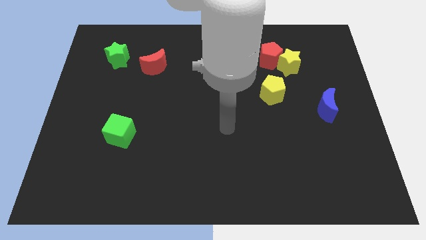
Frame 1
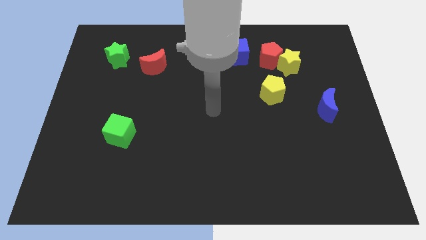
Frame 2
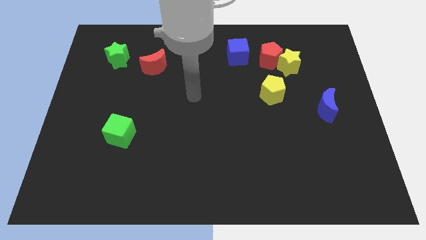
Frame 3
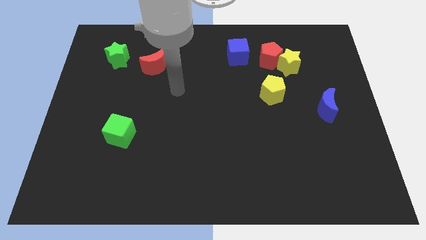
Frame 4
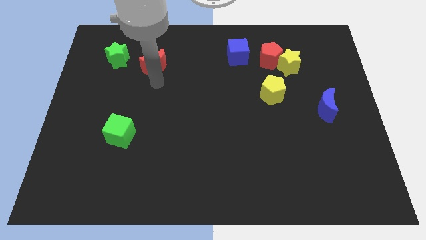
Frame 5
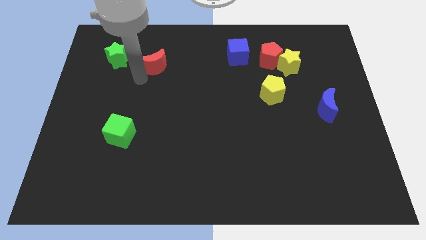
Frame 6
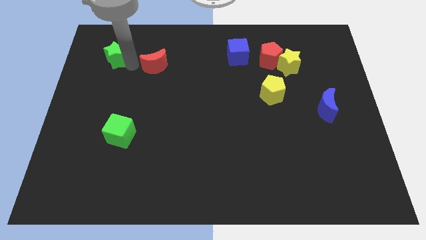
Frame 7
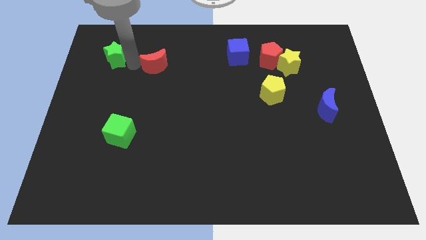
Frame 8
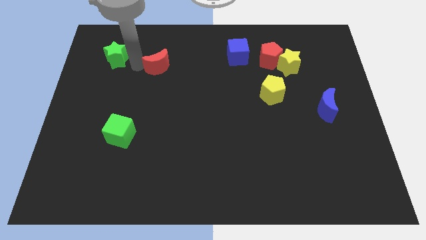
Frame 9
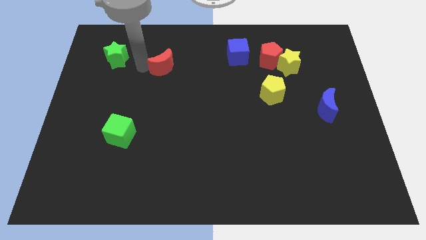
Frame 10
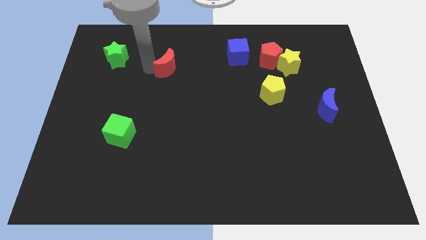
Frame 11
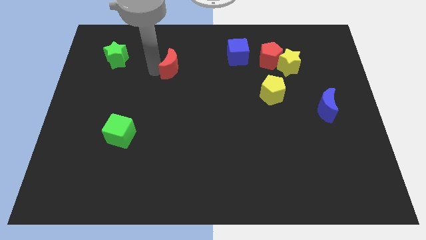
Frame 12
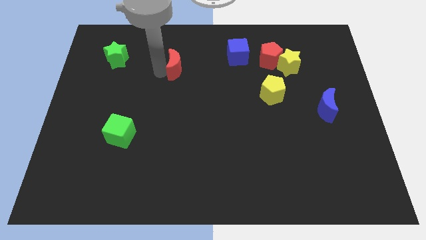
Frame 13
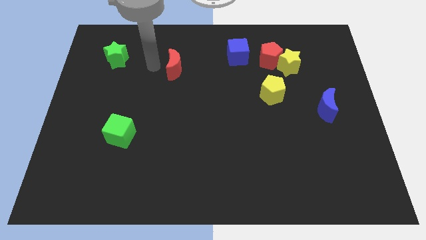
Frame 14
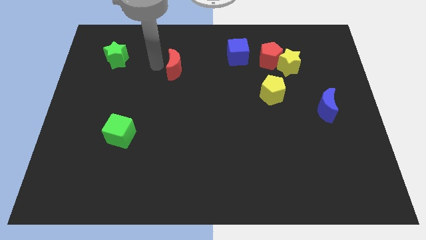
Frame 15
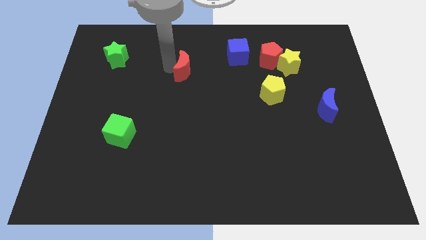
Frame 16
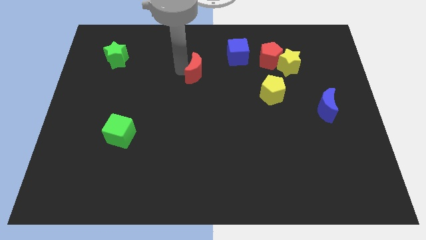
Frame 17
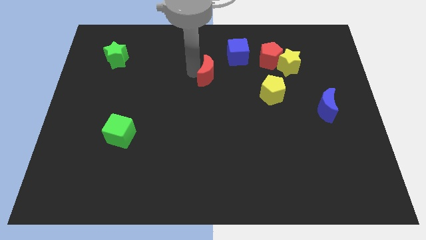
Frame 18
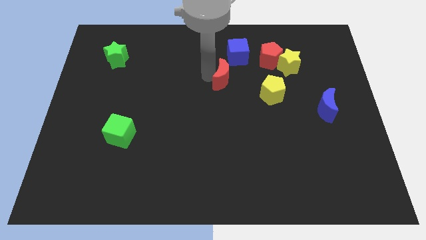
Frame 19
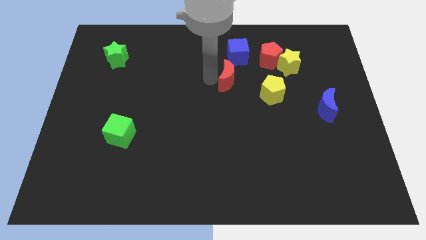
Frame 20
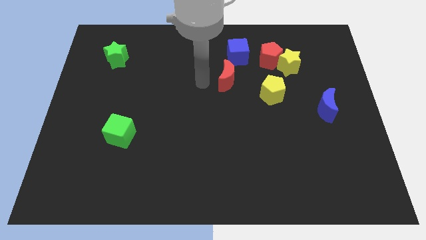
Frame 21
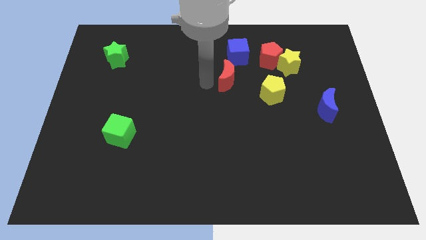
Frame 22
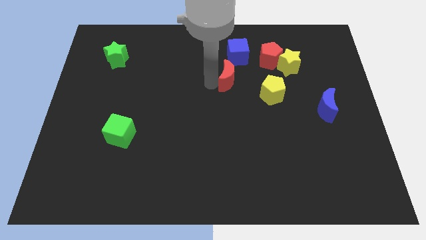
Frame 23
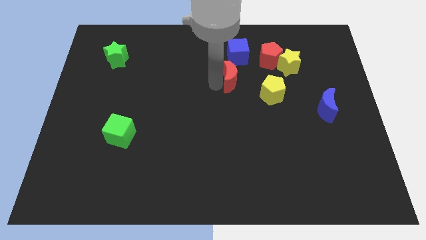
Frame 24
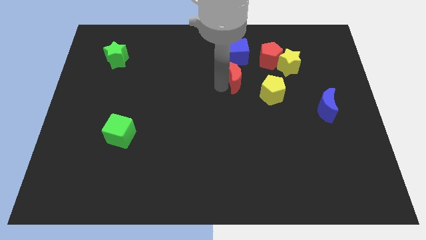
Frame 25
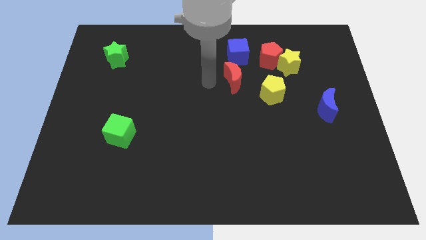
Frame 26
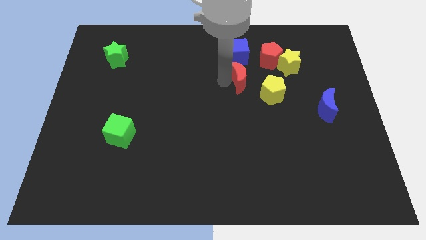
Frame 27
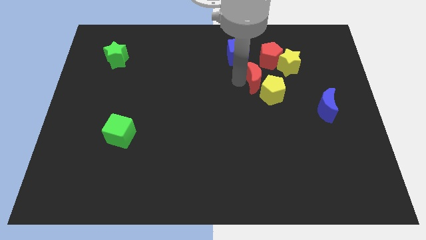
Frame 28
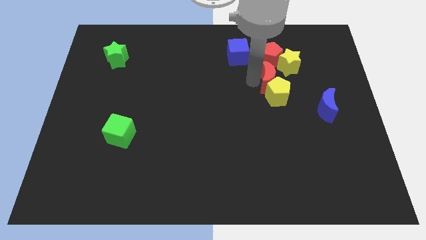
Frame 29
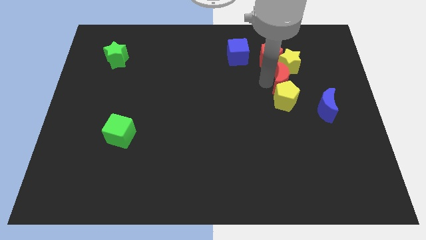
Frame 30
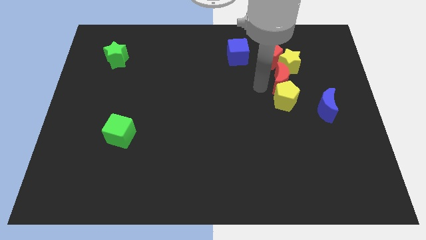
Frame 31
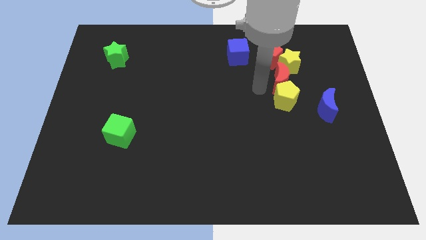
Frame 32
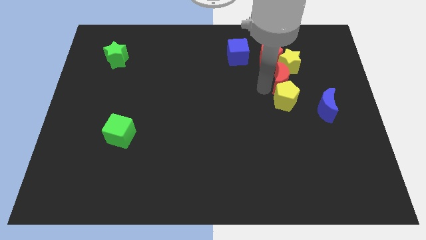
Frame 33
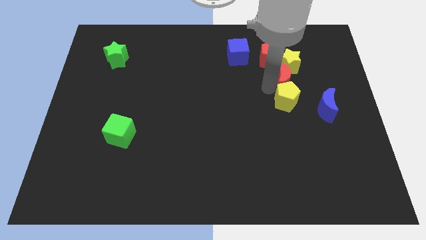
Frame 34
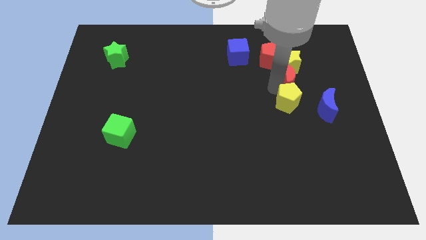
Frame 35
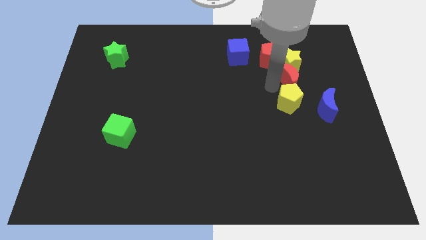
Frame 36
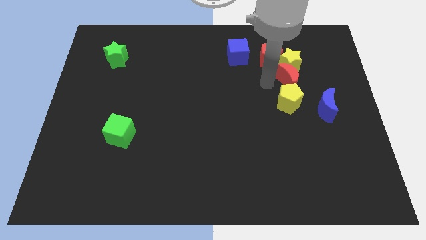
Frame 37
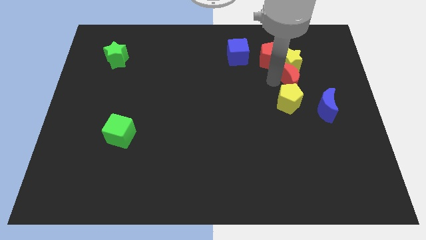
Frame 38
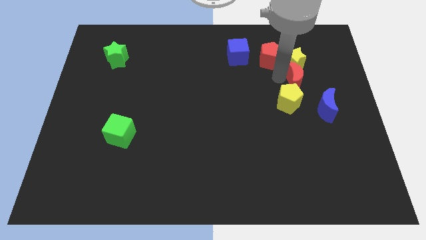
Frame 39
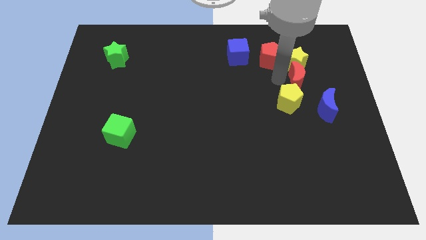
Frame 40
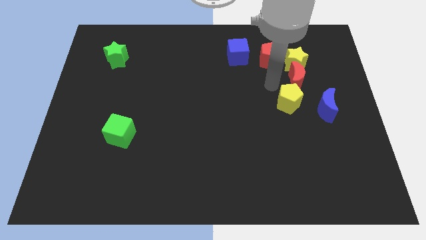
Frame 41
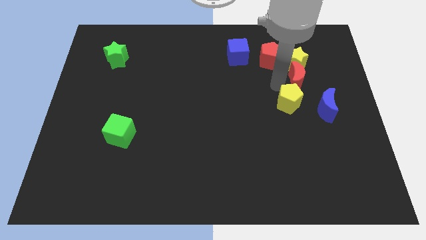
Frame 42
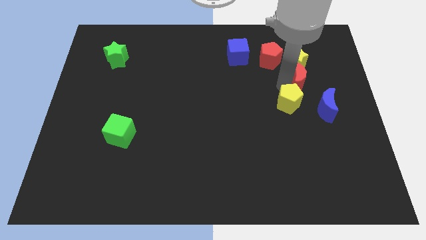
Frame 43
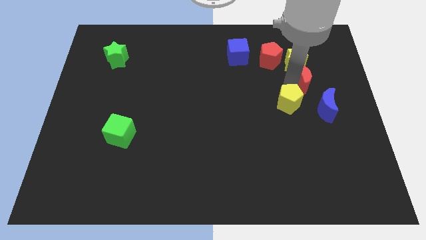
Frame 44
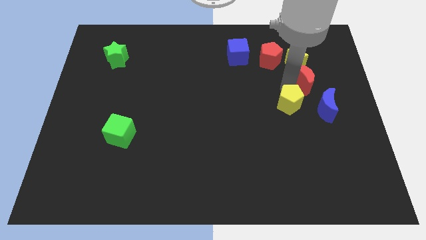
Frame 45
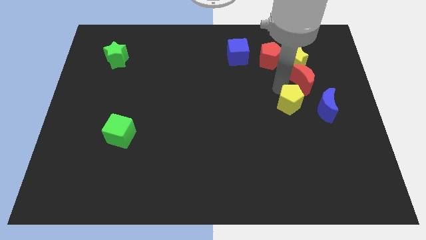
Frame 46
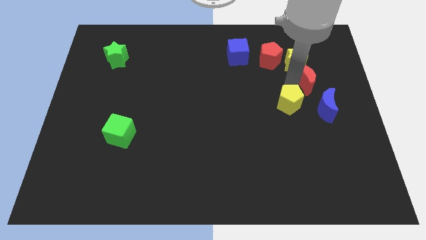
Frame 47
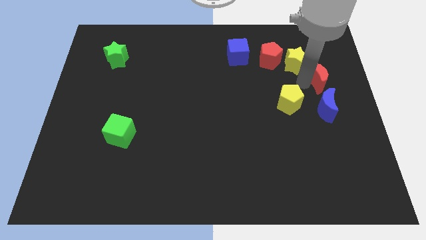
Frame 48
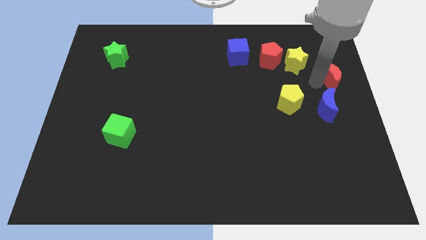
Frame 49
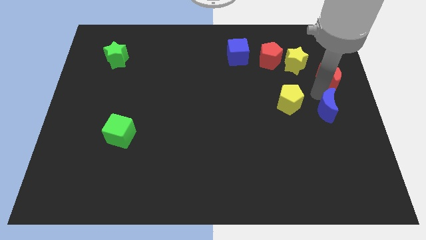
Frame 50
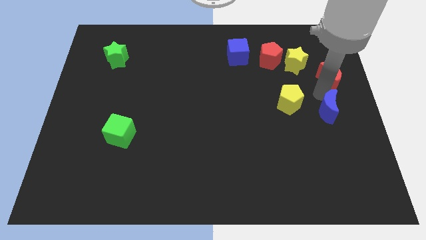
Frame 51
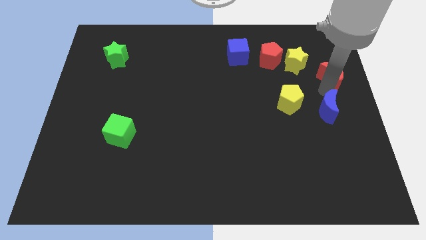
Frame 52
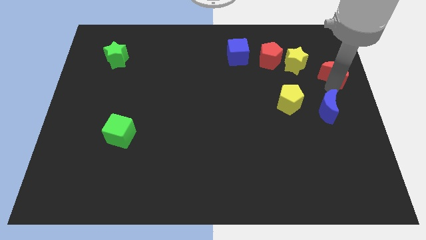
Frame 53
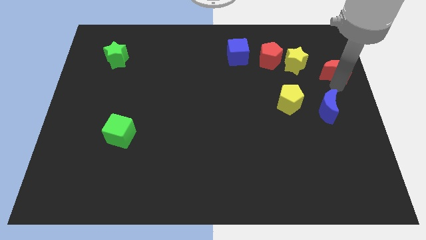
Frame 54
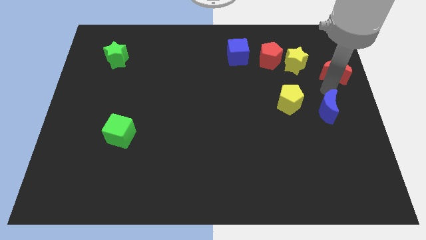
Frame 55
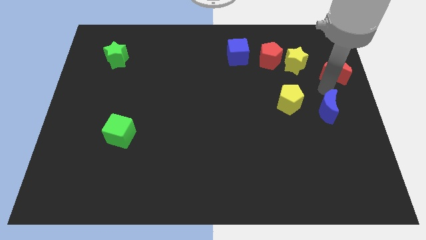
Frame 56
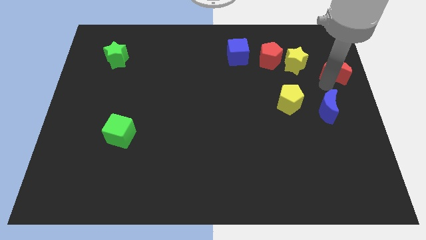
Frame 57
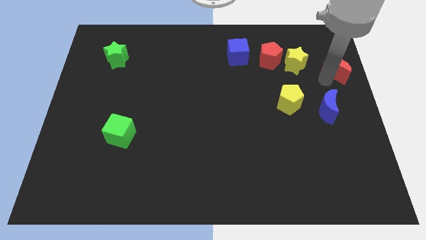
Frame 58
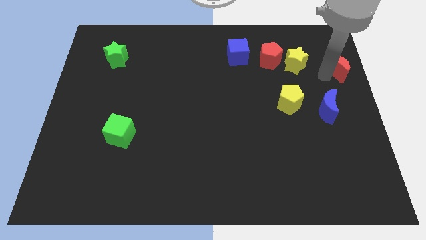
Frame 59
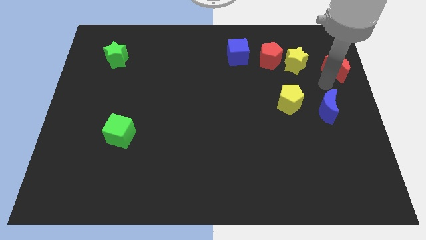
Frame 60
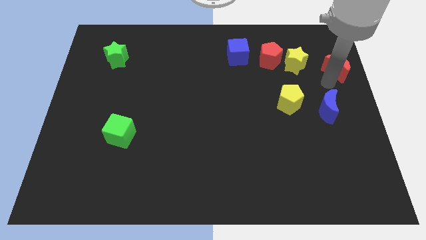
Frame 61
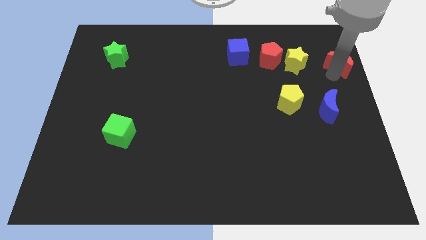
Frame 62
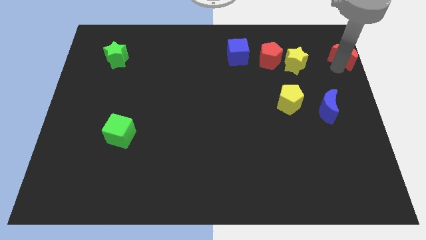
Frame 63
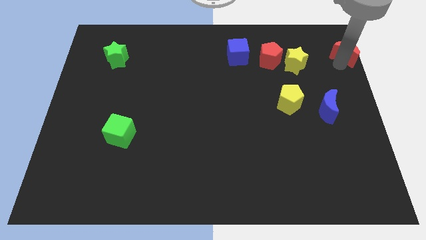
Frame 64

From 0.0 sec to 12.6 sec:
move the red moon to the top right corner
